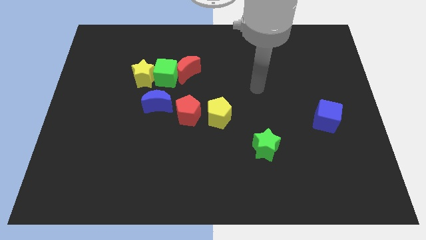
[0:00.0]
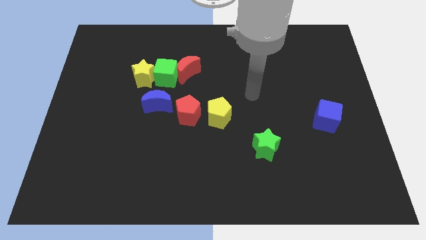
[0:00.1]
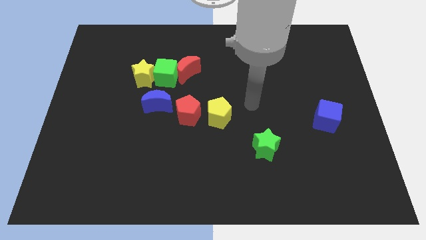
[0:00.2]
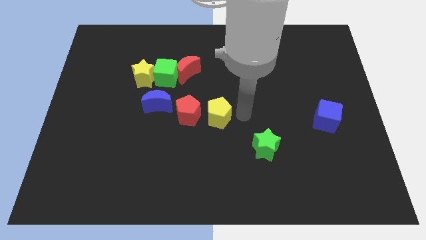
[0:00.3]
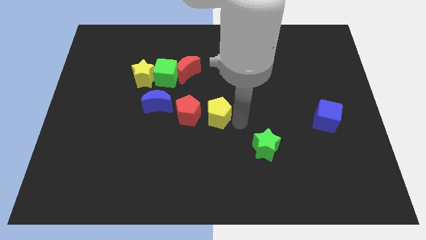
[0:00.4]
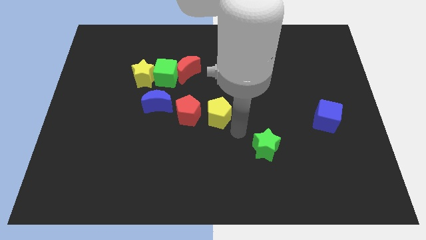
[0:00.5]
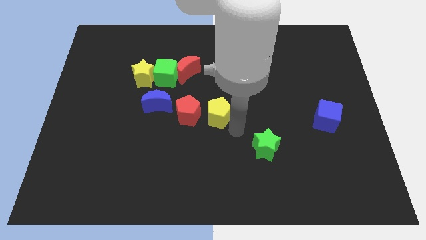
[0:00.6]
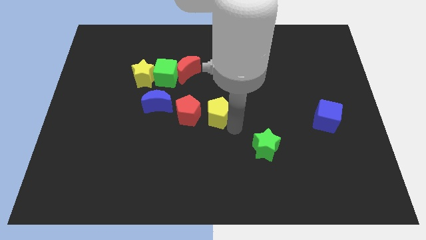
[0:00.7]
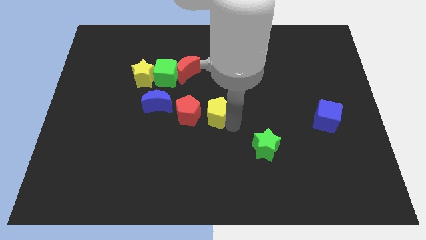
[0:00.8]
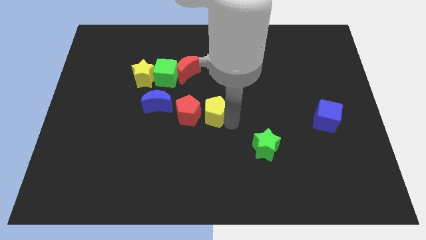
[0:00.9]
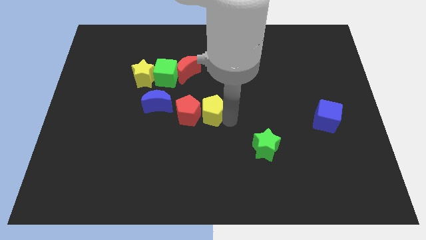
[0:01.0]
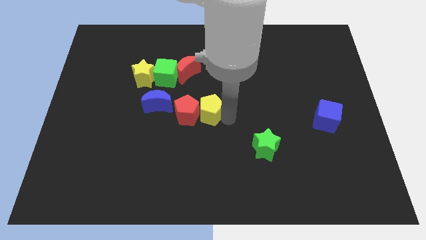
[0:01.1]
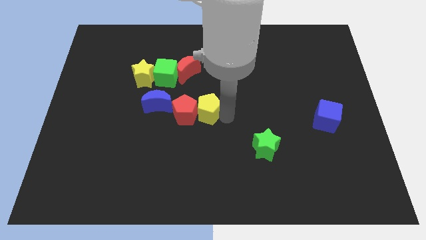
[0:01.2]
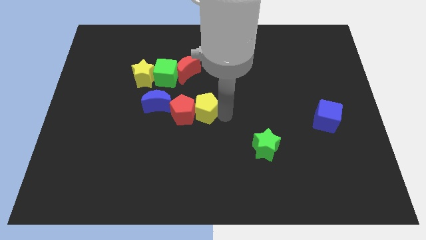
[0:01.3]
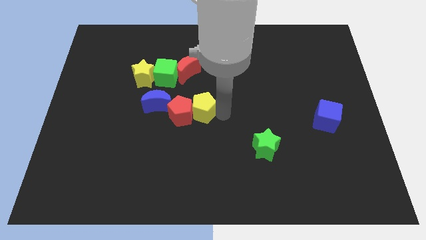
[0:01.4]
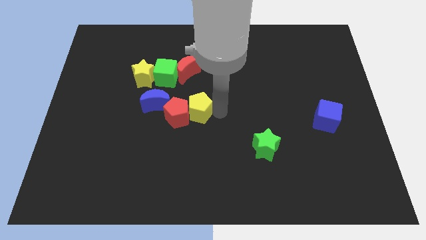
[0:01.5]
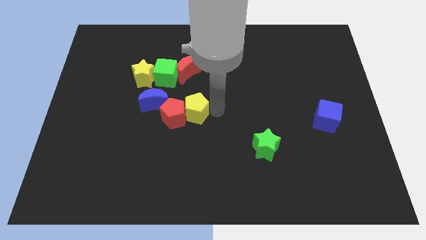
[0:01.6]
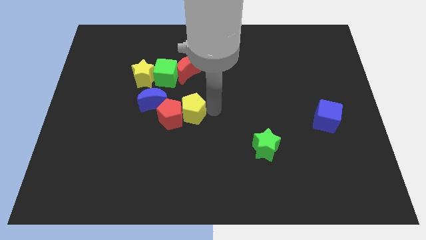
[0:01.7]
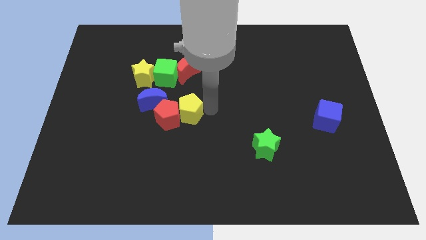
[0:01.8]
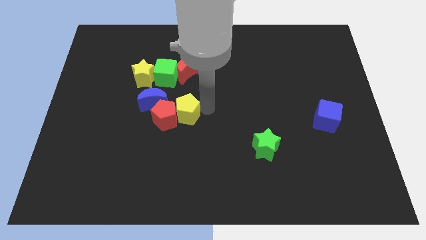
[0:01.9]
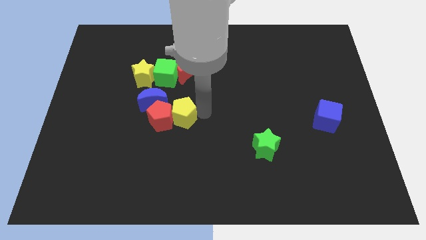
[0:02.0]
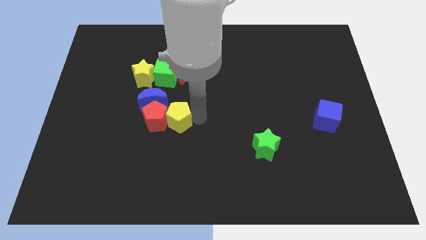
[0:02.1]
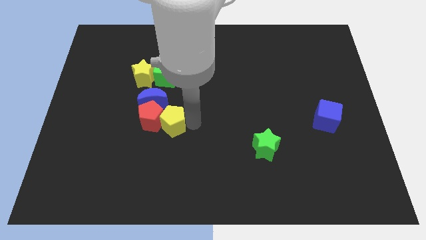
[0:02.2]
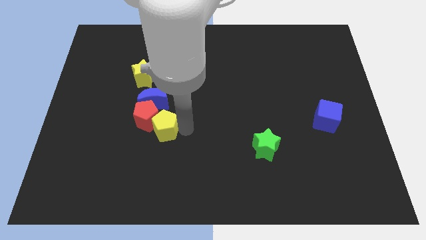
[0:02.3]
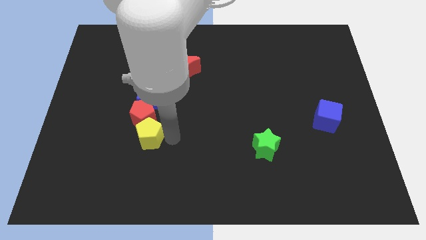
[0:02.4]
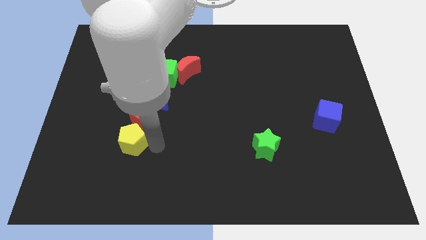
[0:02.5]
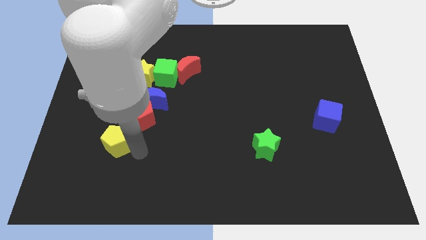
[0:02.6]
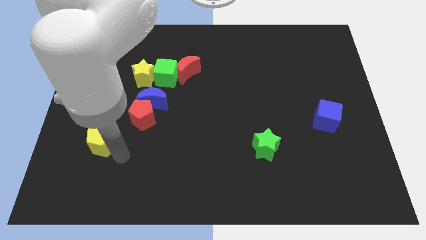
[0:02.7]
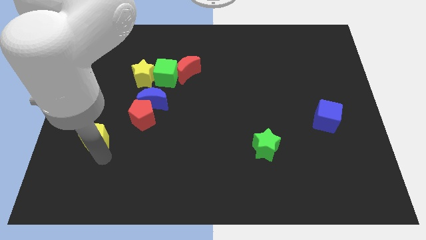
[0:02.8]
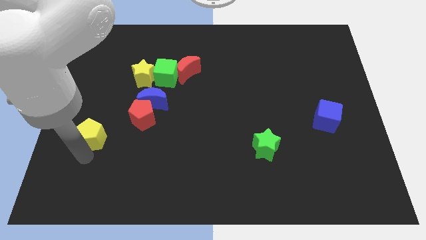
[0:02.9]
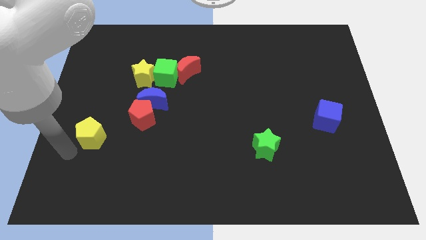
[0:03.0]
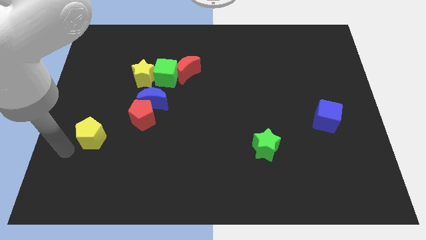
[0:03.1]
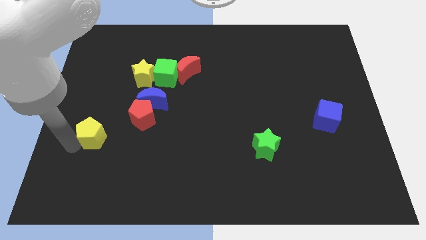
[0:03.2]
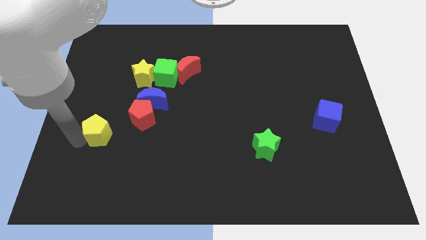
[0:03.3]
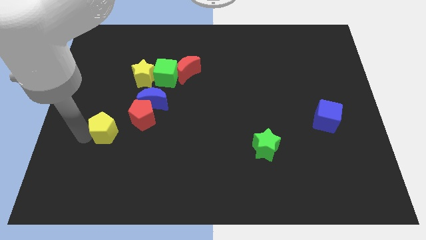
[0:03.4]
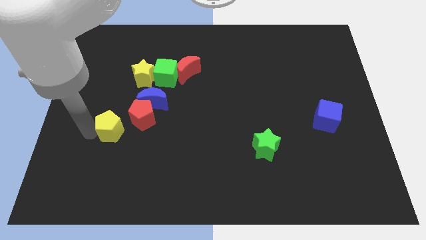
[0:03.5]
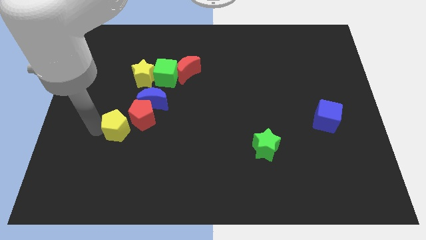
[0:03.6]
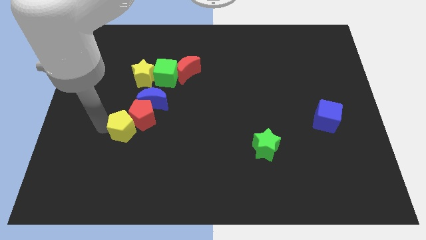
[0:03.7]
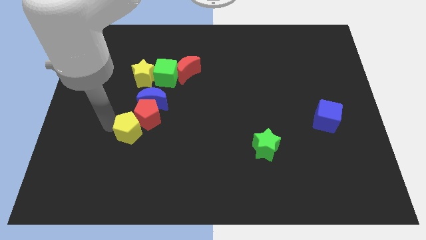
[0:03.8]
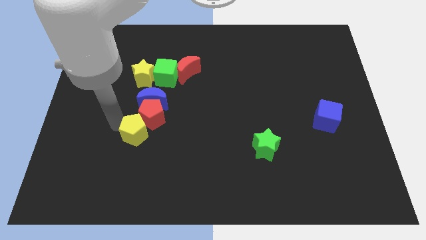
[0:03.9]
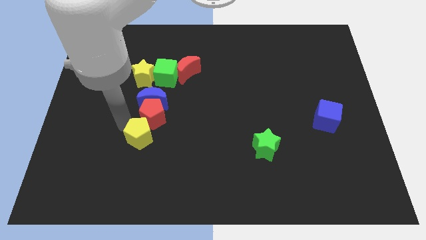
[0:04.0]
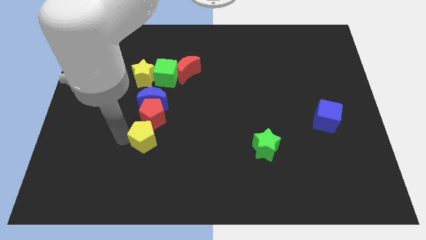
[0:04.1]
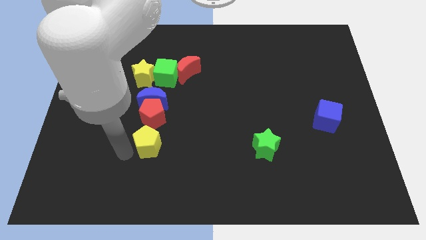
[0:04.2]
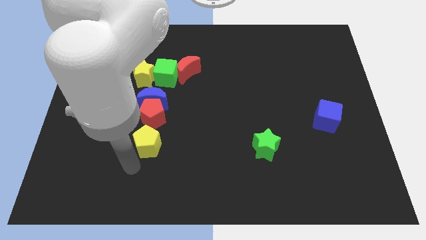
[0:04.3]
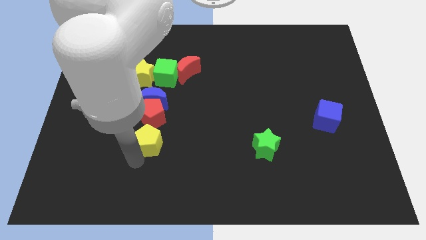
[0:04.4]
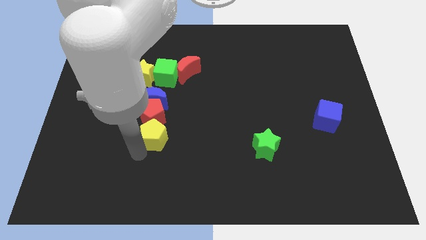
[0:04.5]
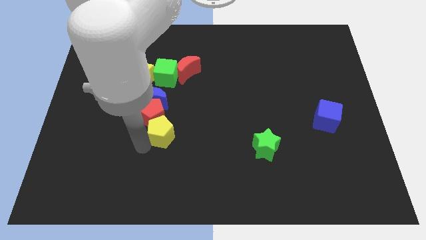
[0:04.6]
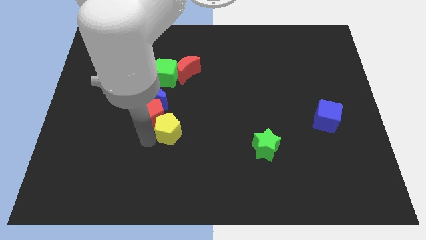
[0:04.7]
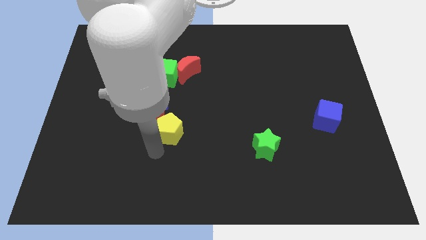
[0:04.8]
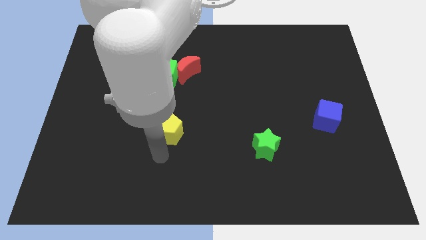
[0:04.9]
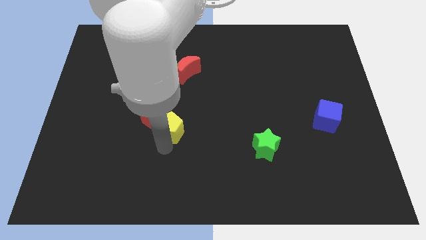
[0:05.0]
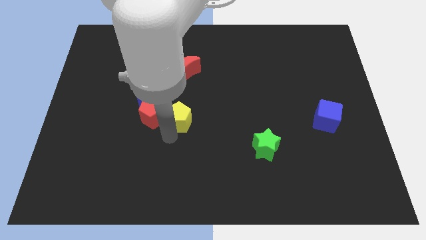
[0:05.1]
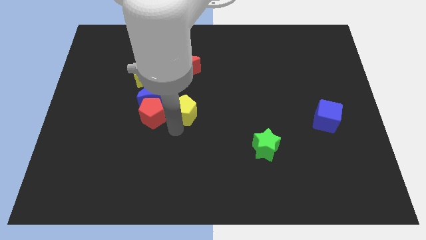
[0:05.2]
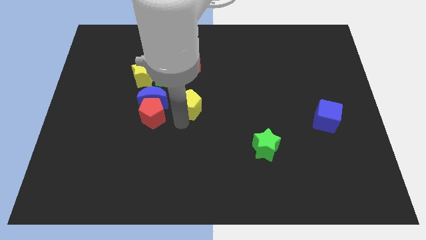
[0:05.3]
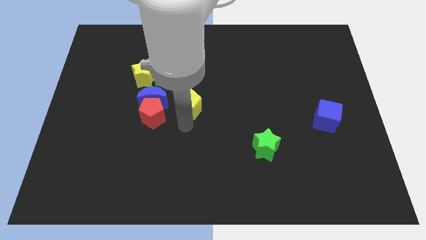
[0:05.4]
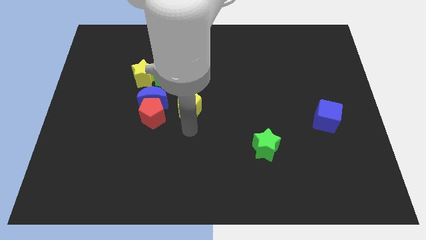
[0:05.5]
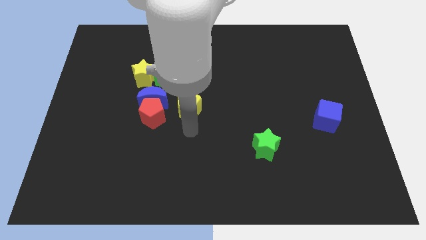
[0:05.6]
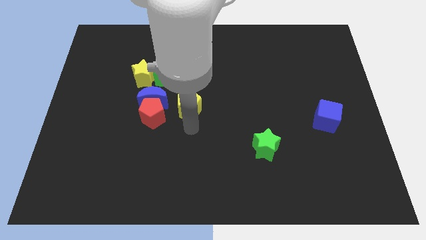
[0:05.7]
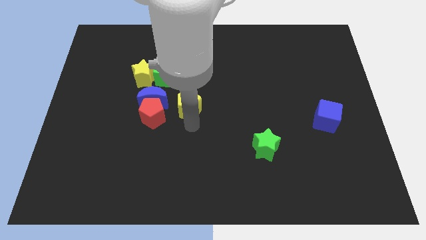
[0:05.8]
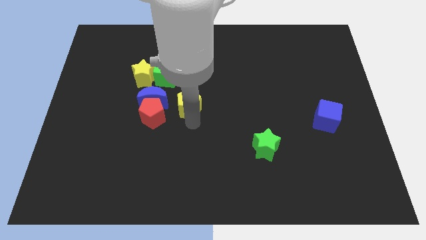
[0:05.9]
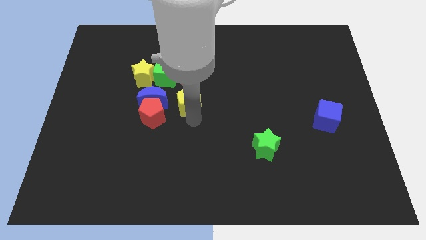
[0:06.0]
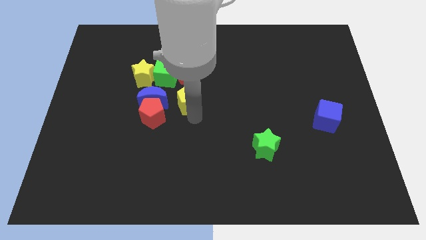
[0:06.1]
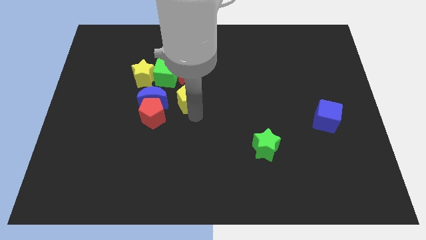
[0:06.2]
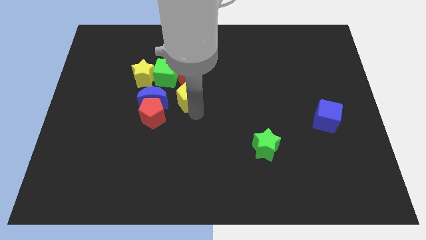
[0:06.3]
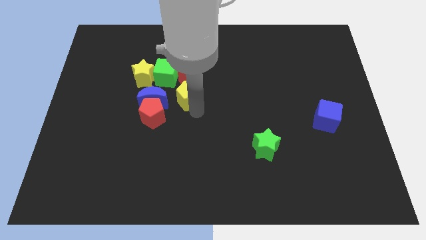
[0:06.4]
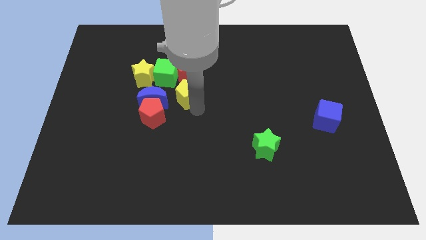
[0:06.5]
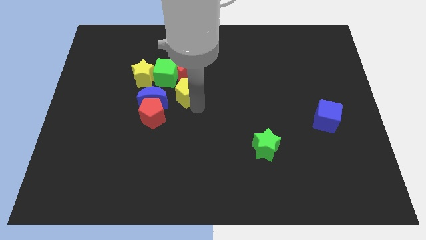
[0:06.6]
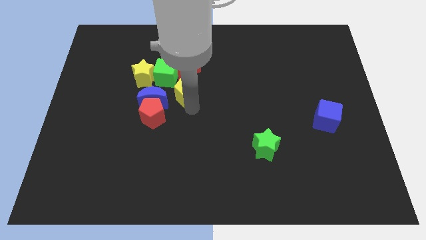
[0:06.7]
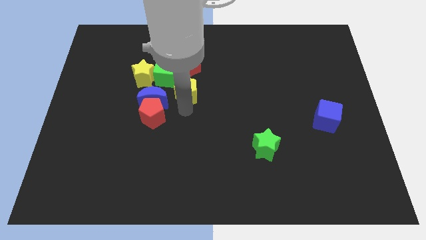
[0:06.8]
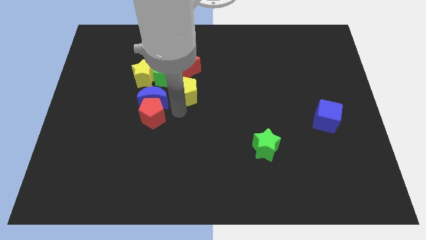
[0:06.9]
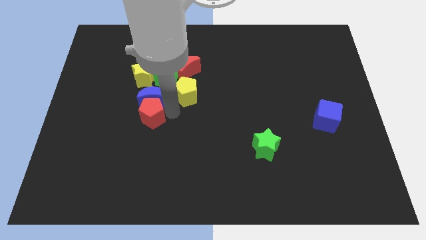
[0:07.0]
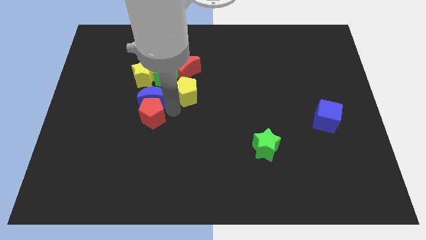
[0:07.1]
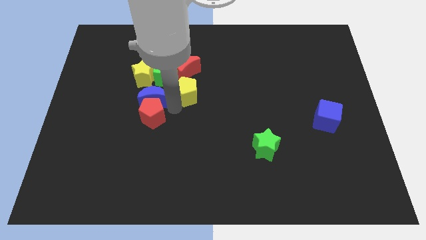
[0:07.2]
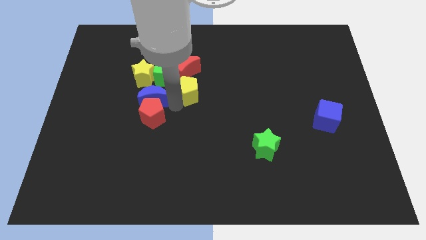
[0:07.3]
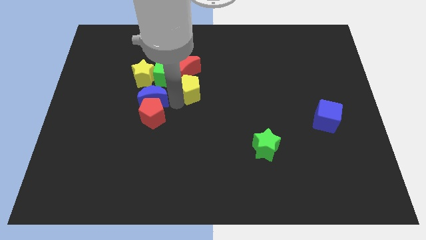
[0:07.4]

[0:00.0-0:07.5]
move the yellow pentagon to the right of the yellow star
